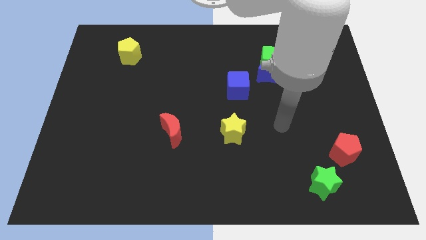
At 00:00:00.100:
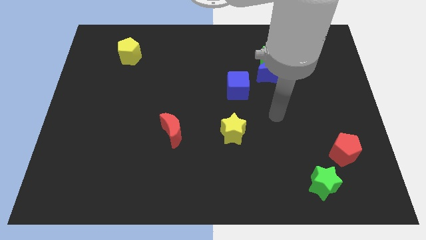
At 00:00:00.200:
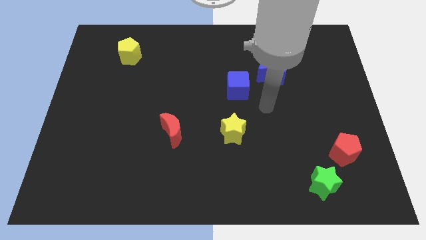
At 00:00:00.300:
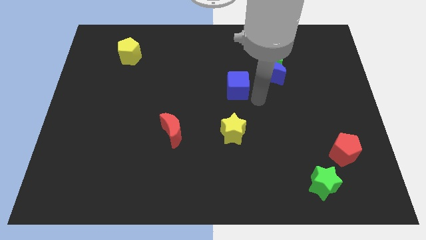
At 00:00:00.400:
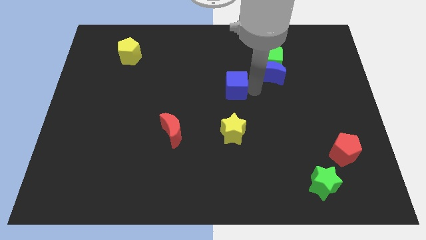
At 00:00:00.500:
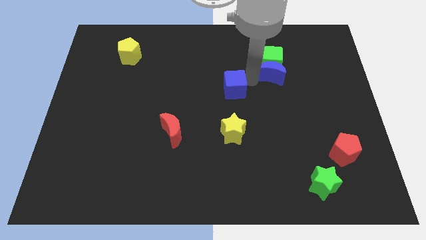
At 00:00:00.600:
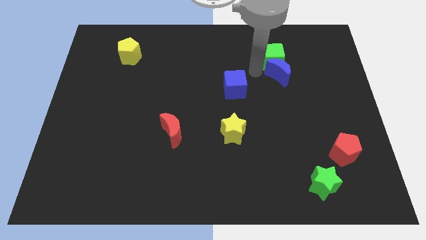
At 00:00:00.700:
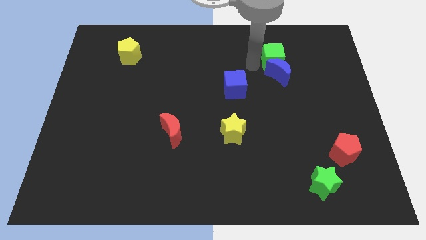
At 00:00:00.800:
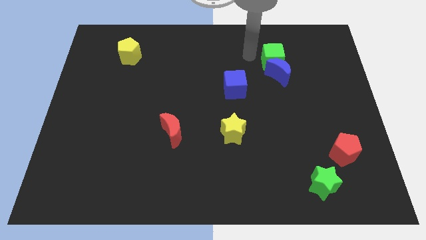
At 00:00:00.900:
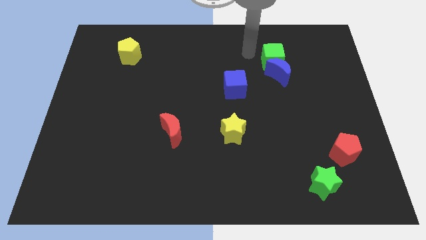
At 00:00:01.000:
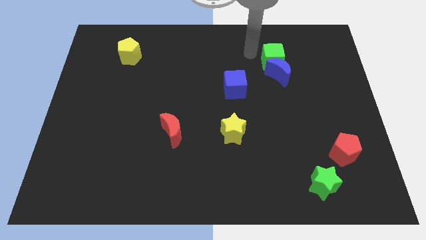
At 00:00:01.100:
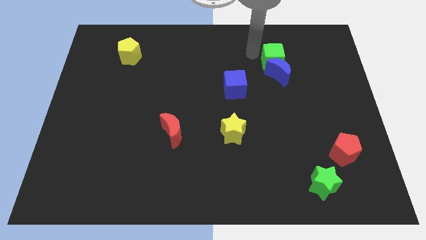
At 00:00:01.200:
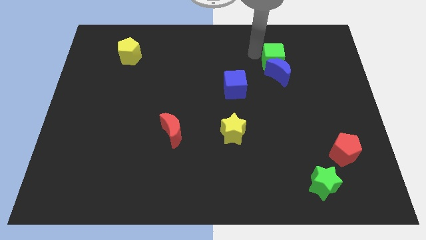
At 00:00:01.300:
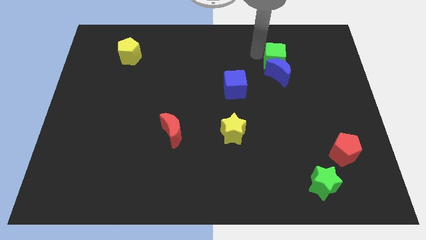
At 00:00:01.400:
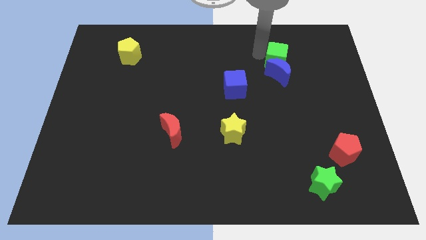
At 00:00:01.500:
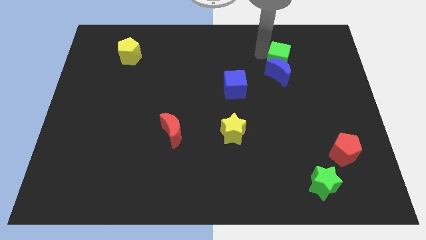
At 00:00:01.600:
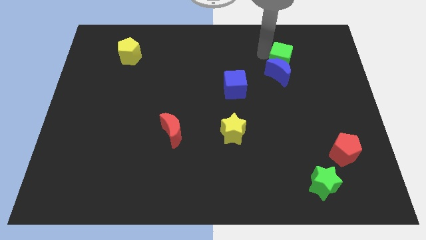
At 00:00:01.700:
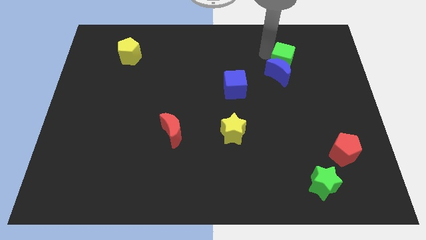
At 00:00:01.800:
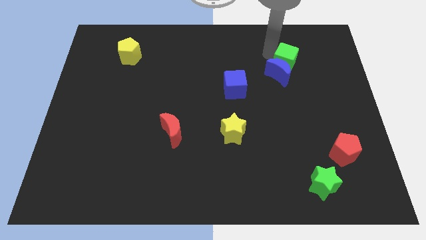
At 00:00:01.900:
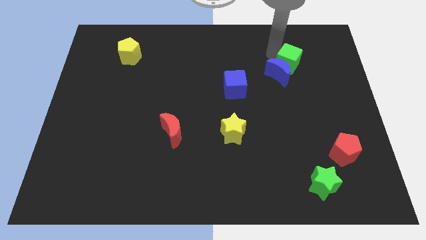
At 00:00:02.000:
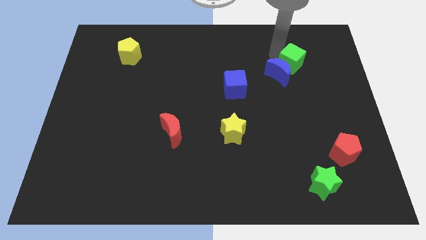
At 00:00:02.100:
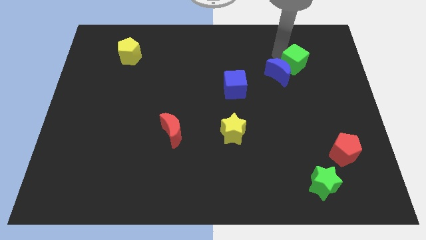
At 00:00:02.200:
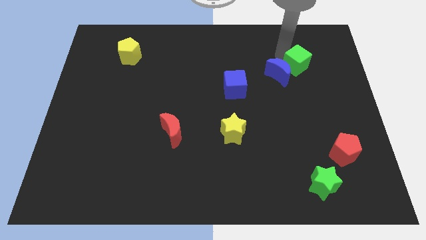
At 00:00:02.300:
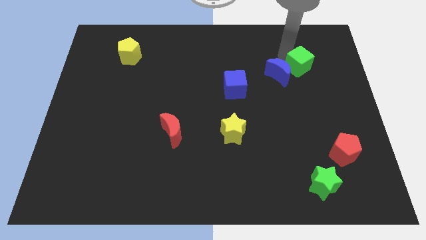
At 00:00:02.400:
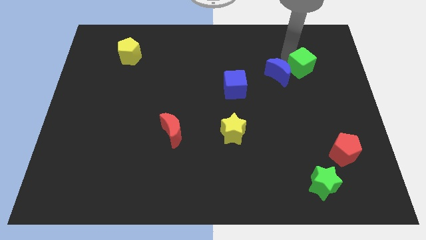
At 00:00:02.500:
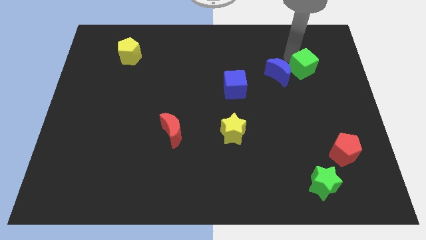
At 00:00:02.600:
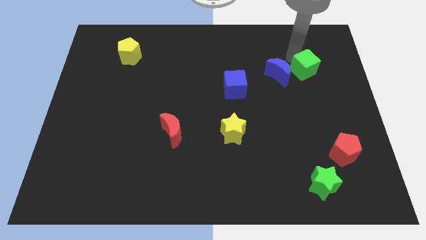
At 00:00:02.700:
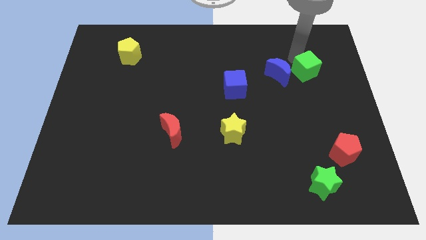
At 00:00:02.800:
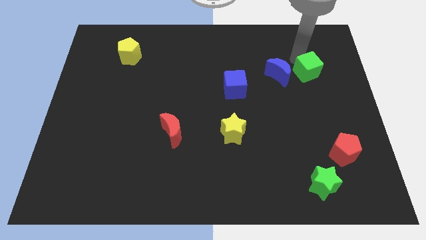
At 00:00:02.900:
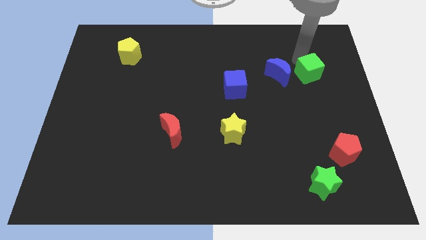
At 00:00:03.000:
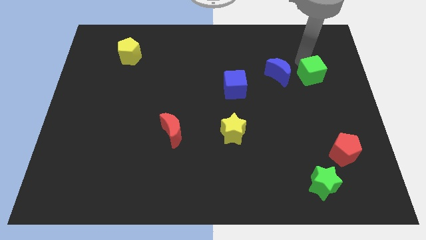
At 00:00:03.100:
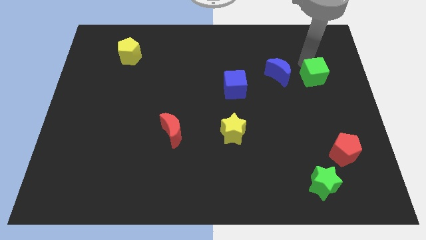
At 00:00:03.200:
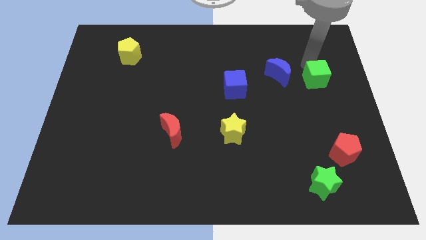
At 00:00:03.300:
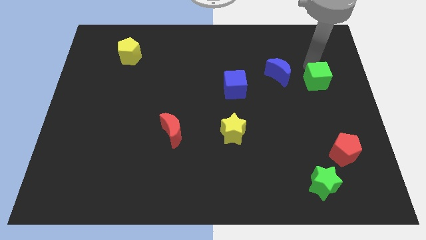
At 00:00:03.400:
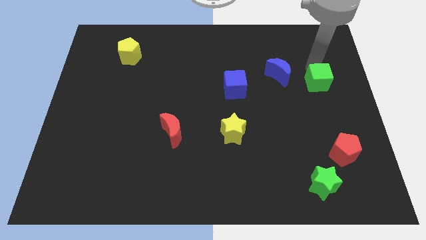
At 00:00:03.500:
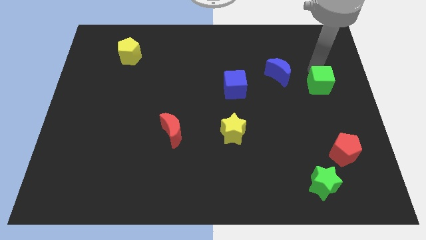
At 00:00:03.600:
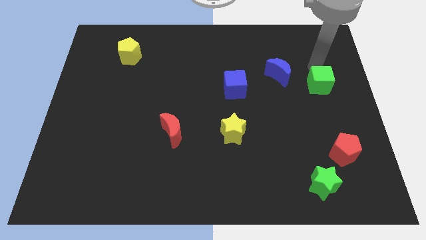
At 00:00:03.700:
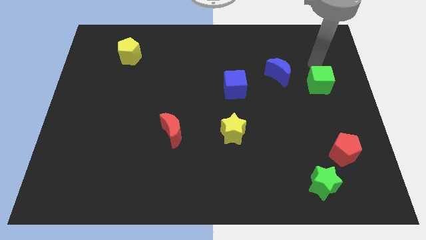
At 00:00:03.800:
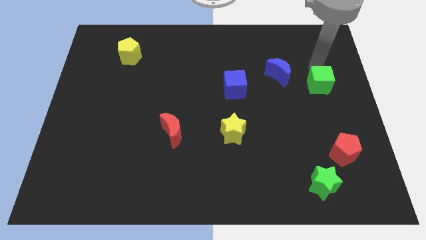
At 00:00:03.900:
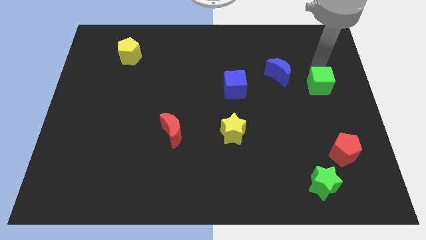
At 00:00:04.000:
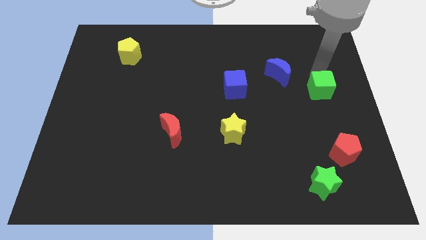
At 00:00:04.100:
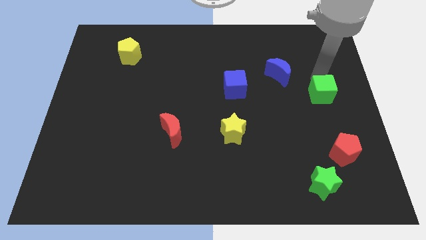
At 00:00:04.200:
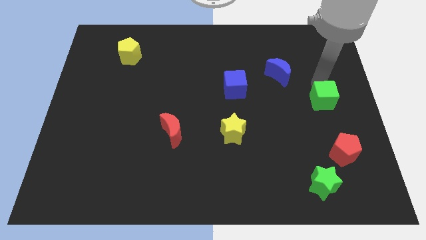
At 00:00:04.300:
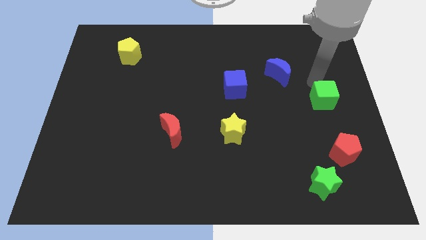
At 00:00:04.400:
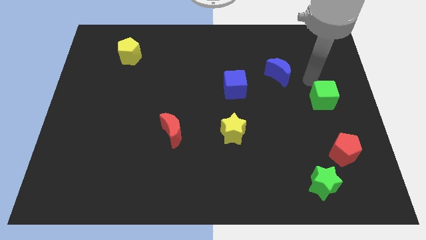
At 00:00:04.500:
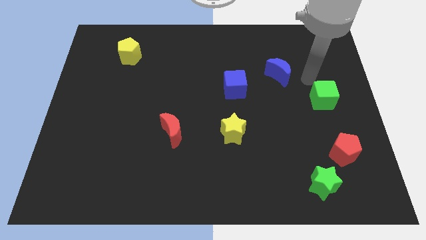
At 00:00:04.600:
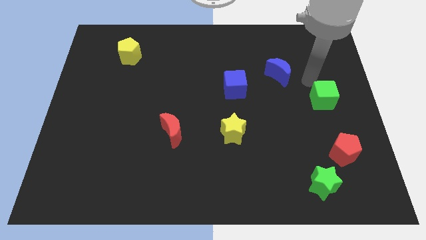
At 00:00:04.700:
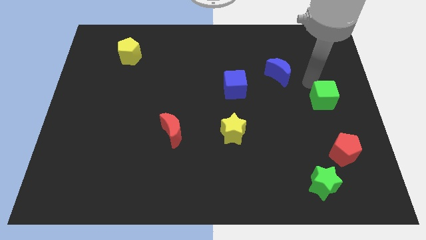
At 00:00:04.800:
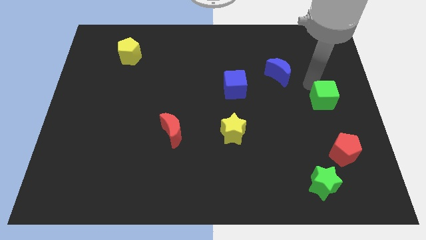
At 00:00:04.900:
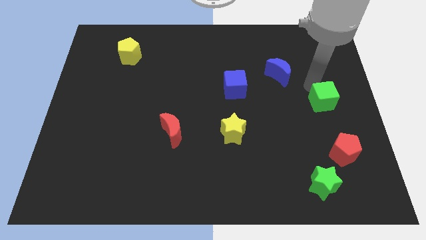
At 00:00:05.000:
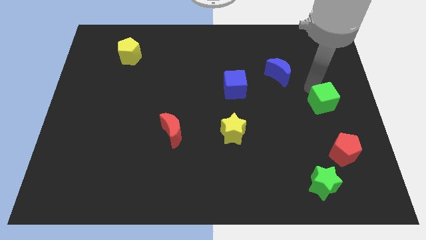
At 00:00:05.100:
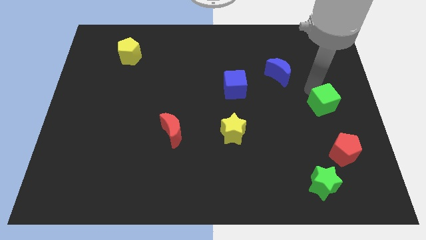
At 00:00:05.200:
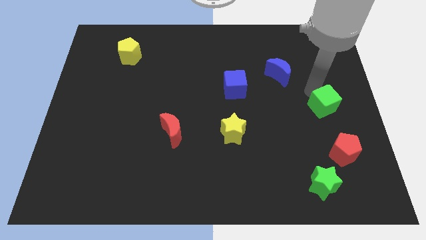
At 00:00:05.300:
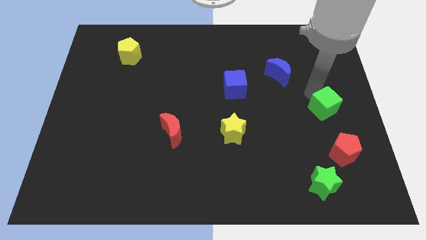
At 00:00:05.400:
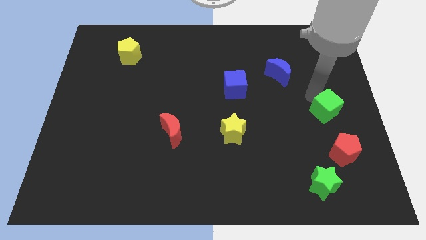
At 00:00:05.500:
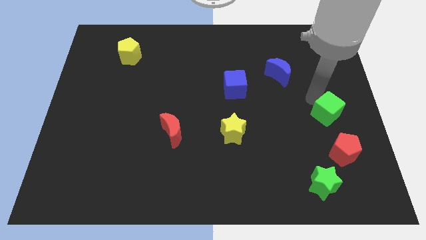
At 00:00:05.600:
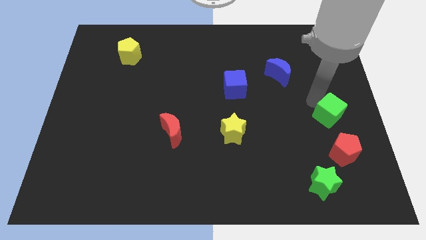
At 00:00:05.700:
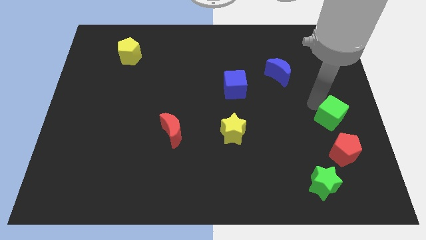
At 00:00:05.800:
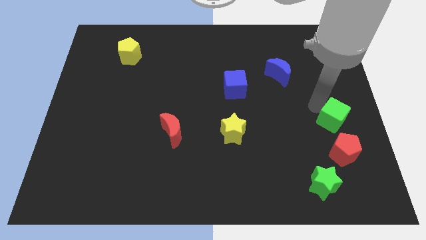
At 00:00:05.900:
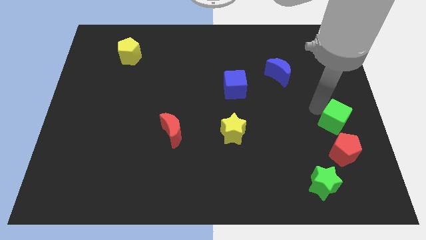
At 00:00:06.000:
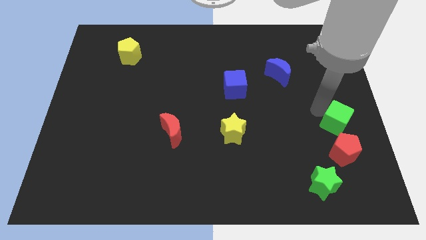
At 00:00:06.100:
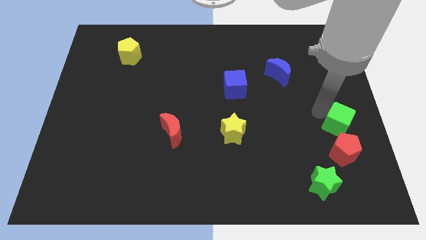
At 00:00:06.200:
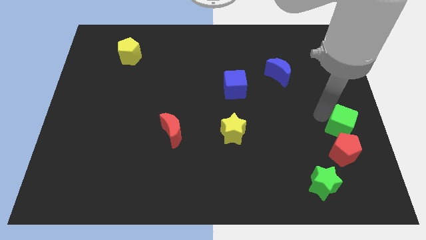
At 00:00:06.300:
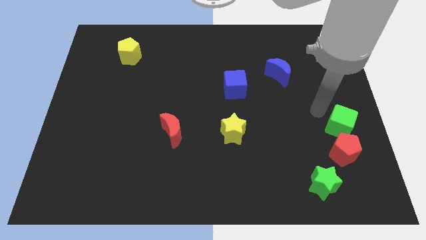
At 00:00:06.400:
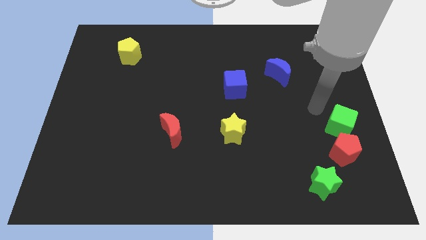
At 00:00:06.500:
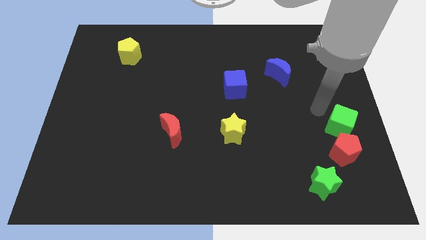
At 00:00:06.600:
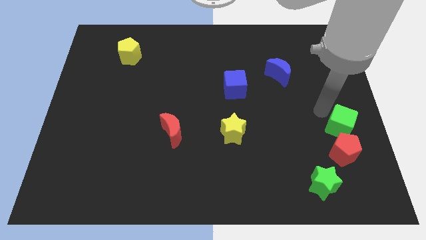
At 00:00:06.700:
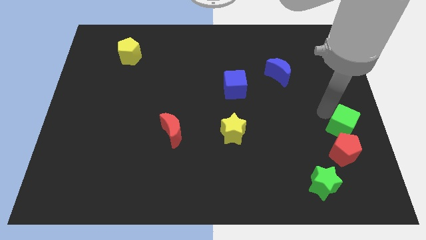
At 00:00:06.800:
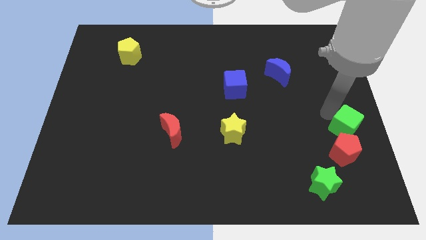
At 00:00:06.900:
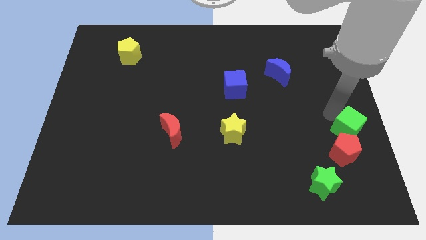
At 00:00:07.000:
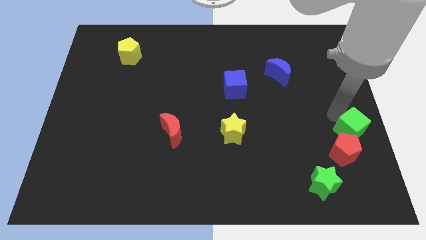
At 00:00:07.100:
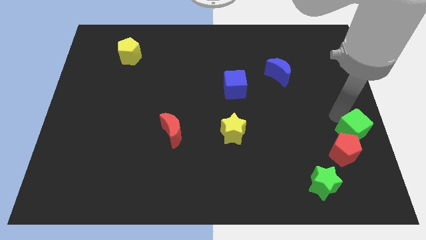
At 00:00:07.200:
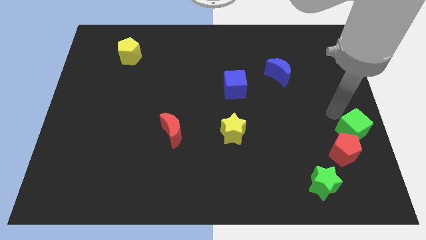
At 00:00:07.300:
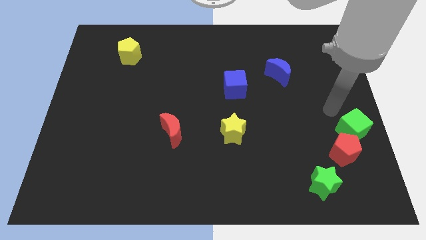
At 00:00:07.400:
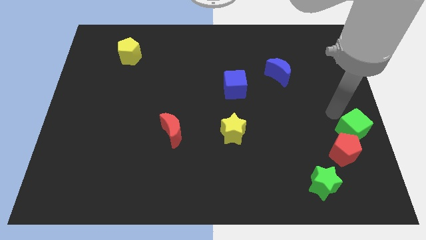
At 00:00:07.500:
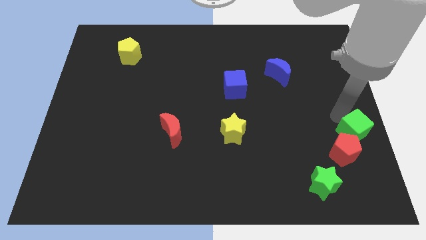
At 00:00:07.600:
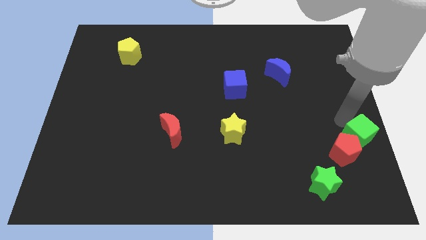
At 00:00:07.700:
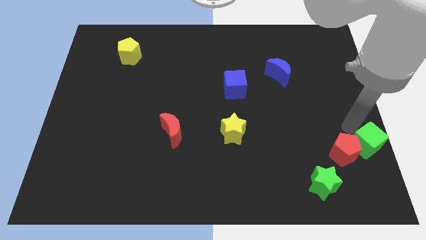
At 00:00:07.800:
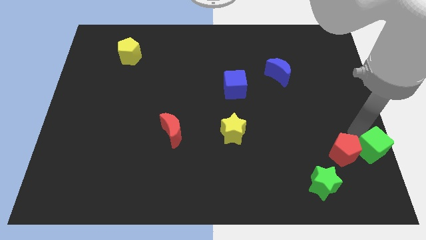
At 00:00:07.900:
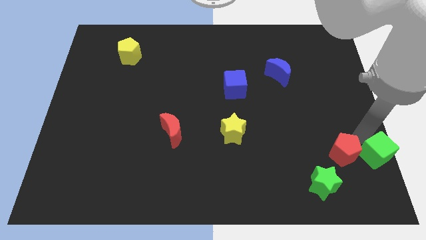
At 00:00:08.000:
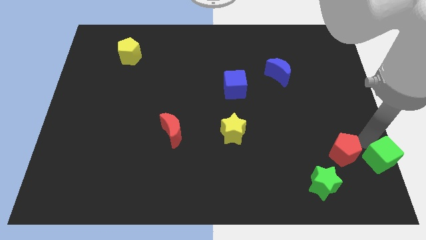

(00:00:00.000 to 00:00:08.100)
slide the green cube to the lower right corner
